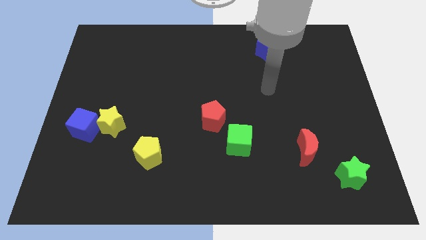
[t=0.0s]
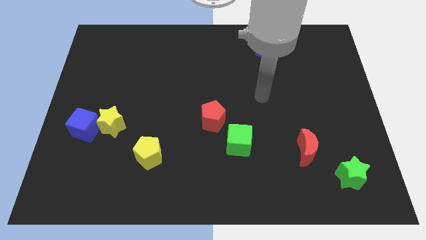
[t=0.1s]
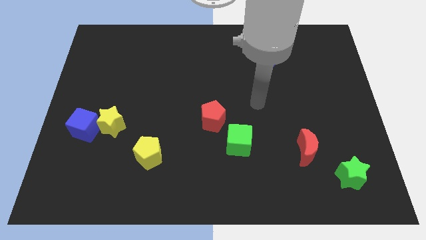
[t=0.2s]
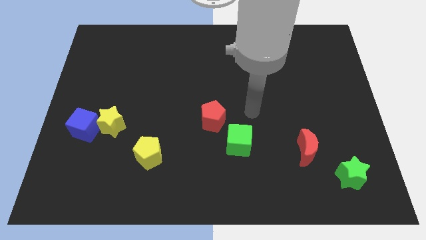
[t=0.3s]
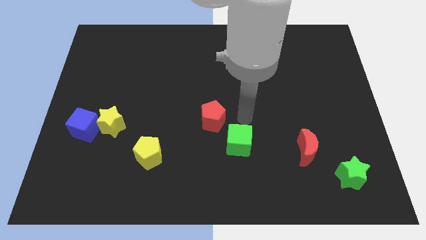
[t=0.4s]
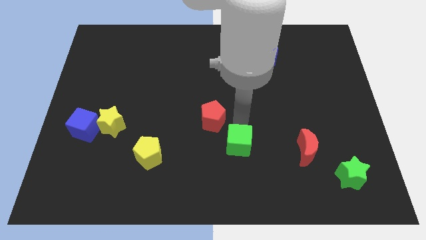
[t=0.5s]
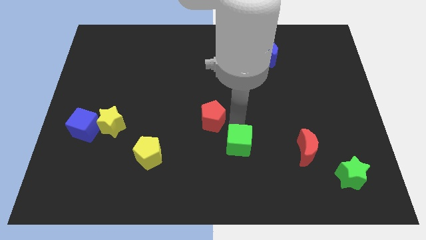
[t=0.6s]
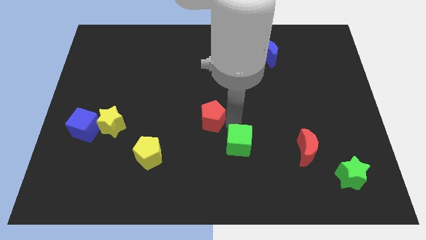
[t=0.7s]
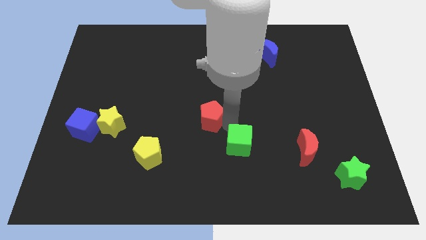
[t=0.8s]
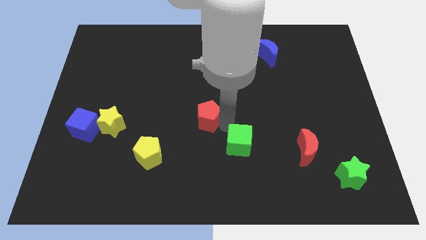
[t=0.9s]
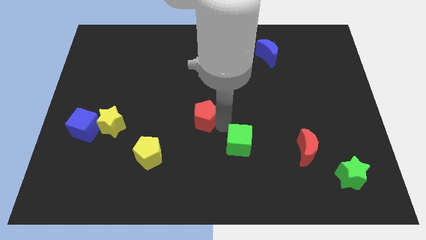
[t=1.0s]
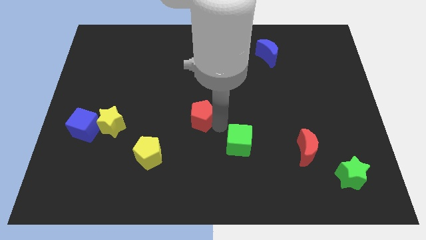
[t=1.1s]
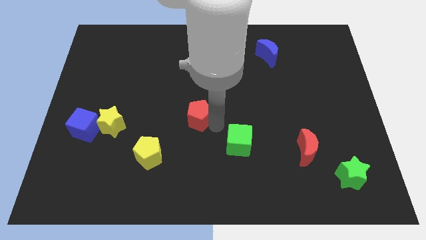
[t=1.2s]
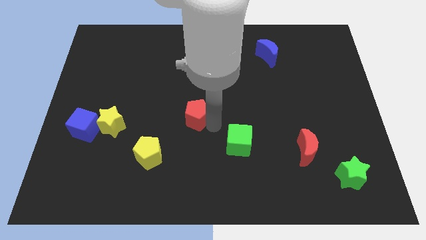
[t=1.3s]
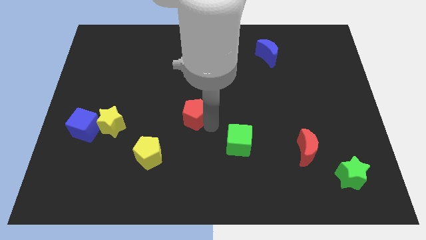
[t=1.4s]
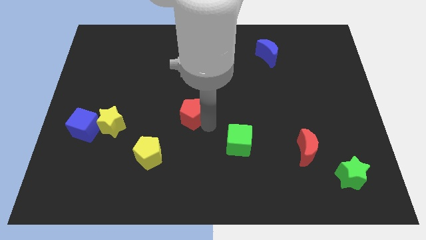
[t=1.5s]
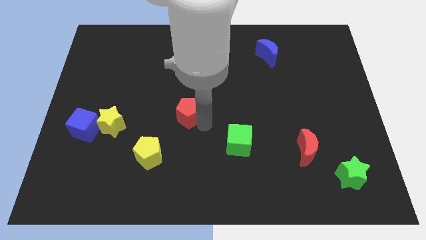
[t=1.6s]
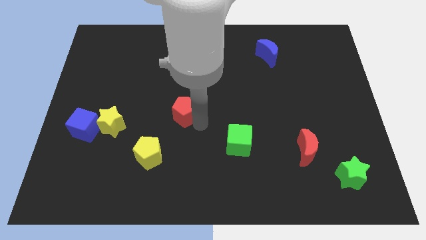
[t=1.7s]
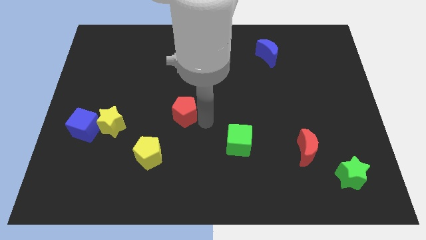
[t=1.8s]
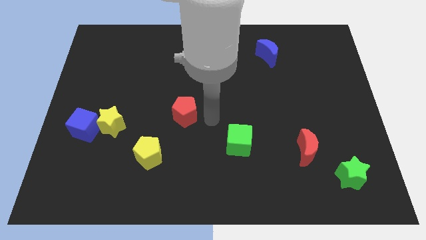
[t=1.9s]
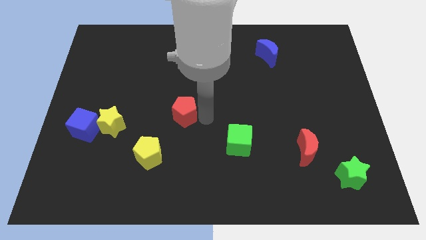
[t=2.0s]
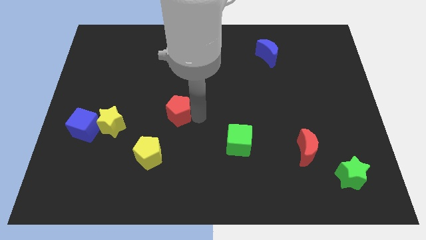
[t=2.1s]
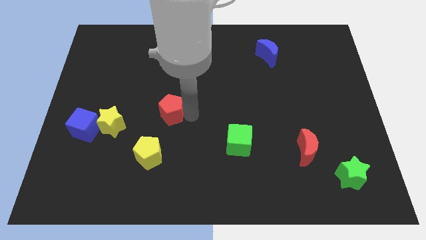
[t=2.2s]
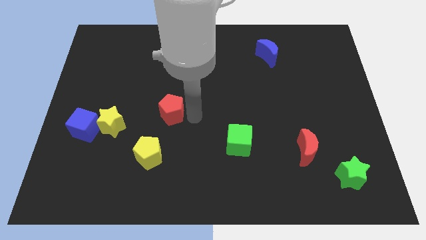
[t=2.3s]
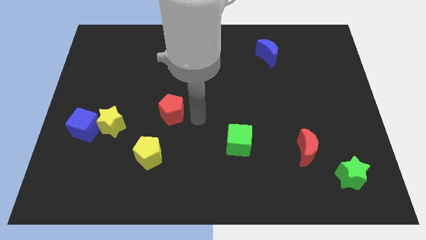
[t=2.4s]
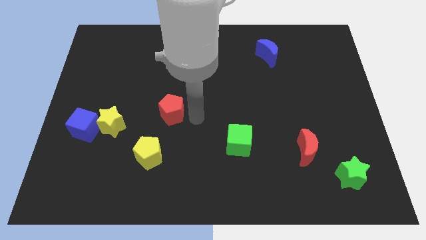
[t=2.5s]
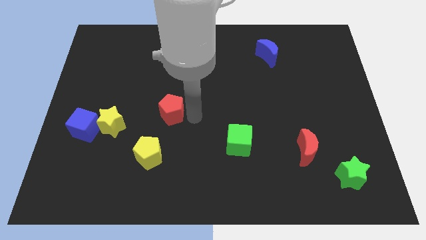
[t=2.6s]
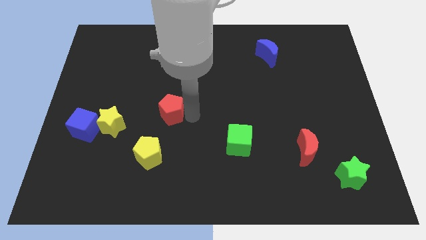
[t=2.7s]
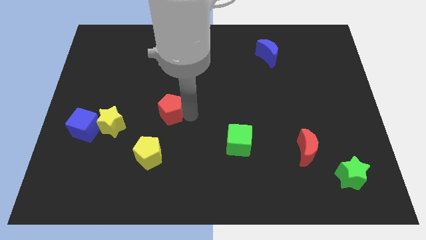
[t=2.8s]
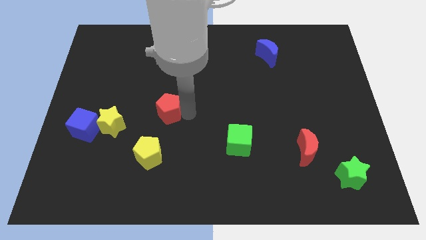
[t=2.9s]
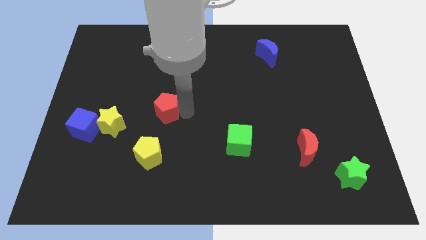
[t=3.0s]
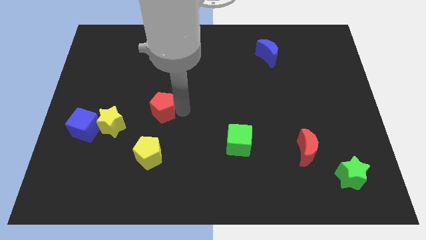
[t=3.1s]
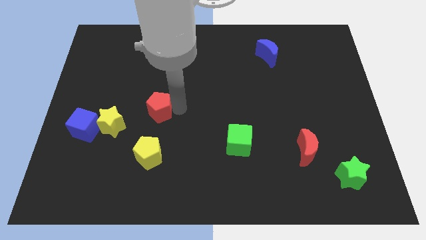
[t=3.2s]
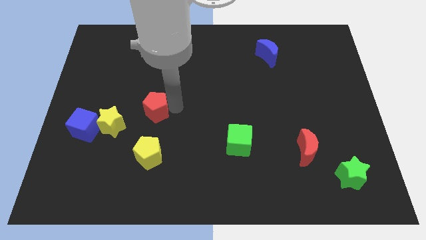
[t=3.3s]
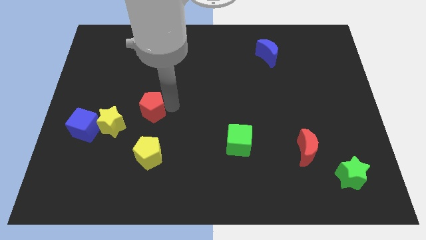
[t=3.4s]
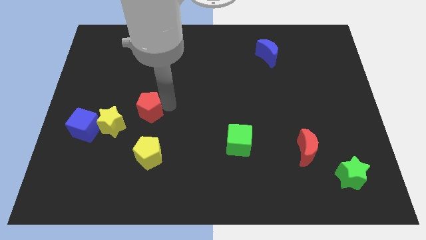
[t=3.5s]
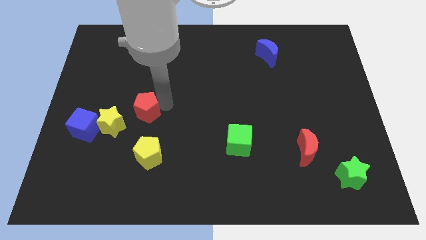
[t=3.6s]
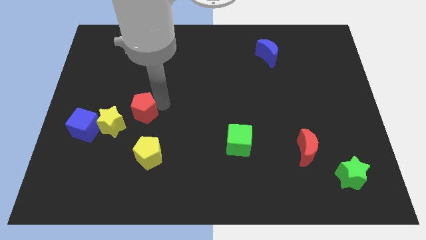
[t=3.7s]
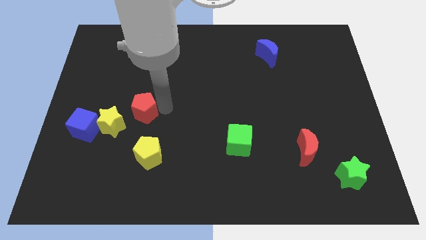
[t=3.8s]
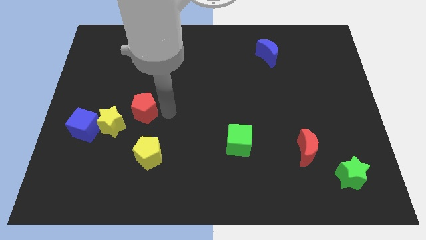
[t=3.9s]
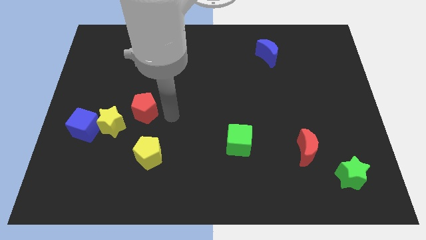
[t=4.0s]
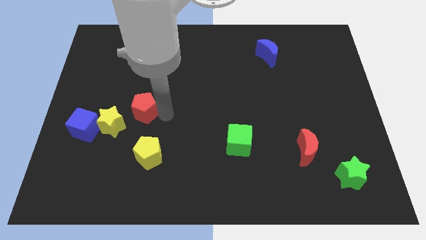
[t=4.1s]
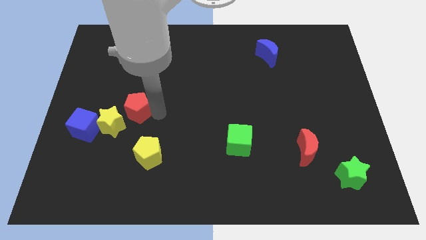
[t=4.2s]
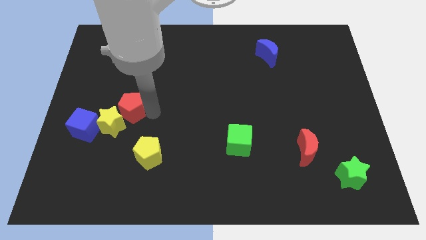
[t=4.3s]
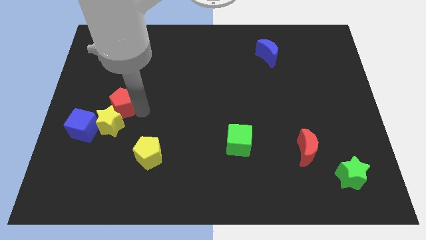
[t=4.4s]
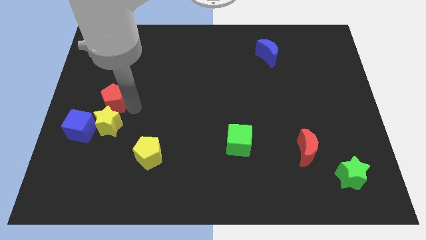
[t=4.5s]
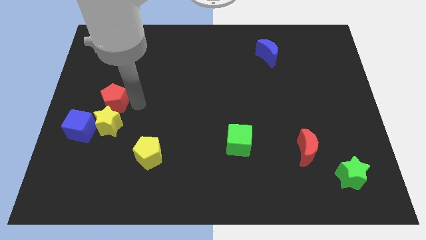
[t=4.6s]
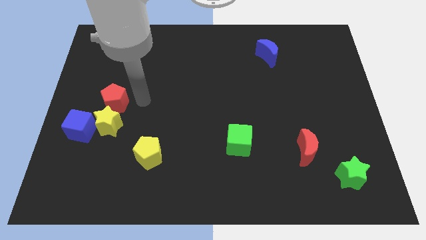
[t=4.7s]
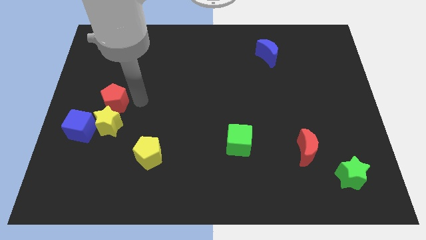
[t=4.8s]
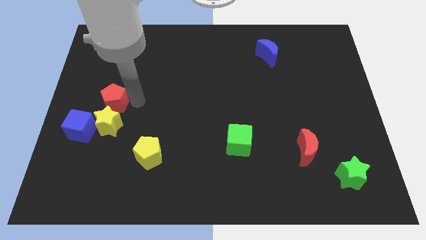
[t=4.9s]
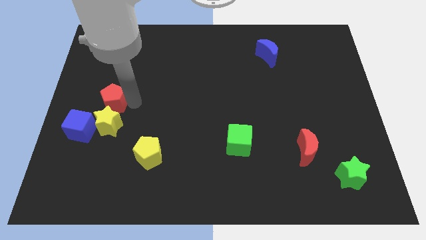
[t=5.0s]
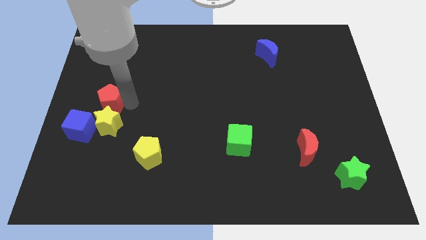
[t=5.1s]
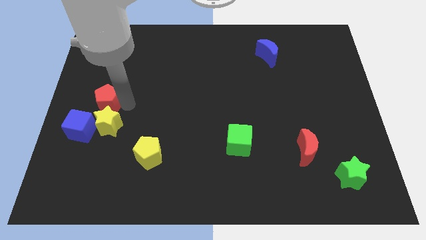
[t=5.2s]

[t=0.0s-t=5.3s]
put the red pentagon to the center left

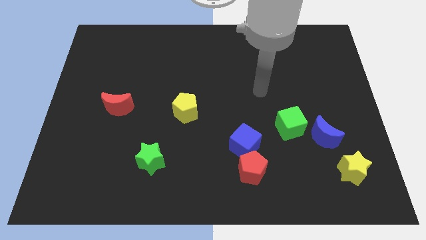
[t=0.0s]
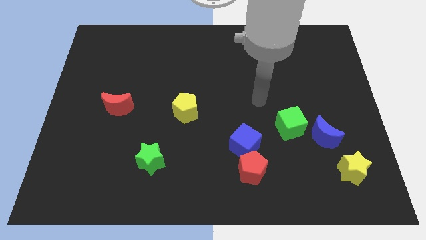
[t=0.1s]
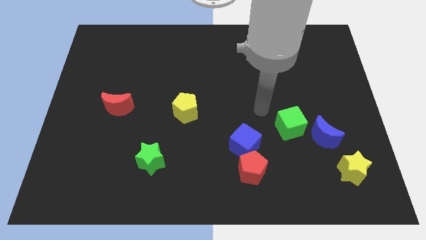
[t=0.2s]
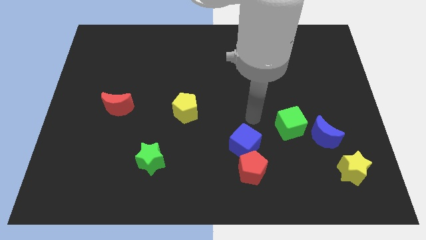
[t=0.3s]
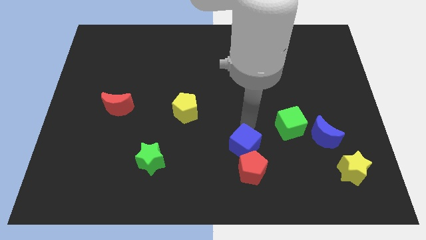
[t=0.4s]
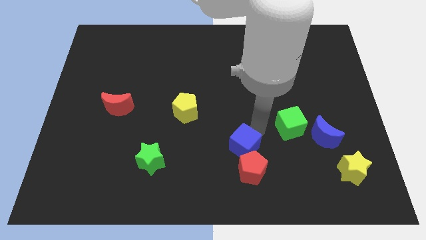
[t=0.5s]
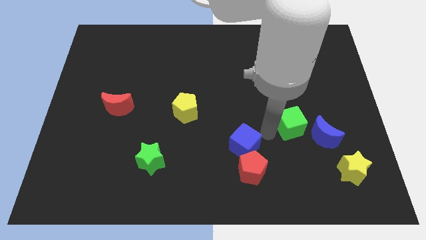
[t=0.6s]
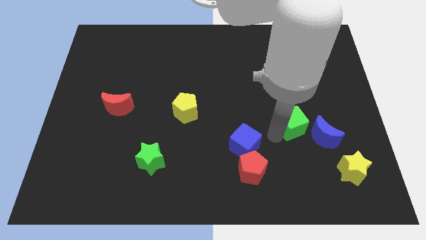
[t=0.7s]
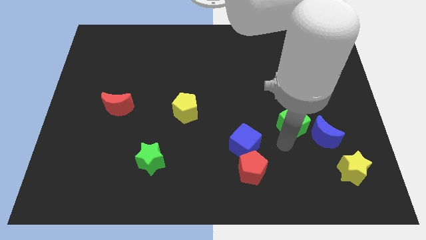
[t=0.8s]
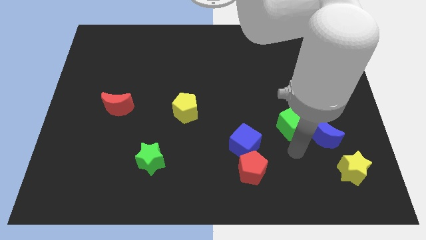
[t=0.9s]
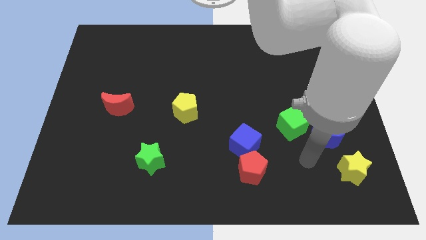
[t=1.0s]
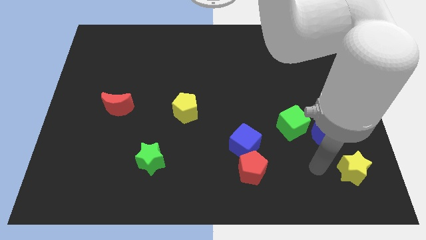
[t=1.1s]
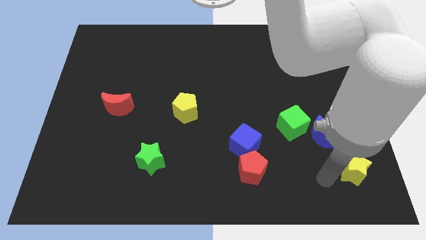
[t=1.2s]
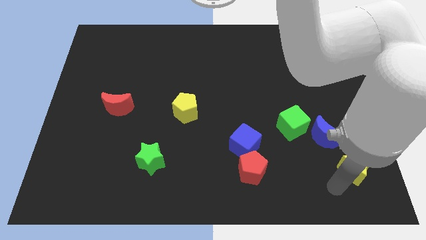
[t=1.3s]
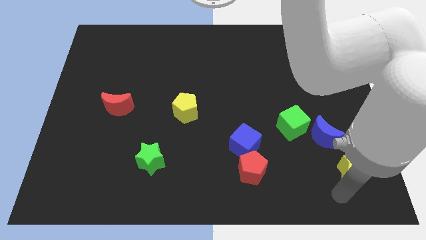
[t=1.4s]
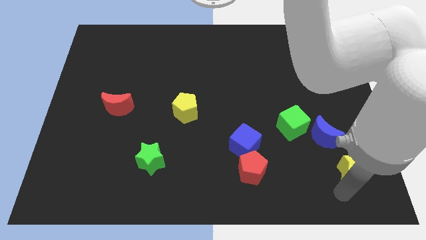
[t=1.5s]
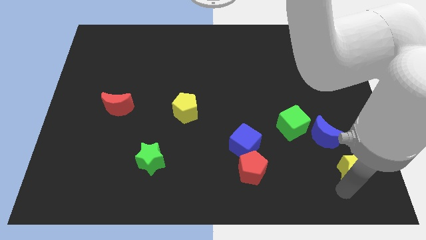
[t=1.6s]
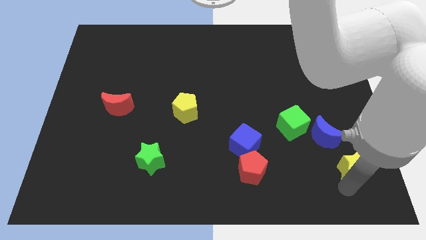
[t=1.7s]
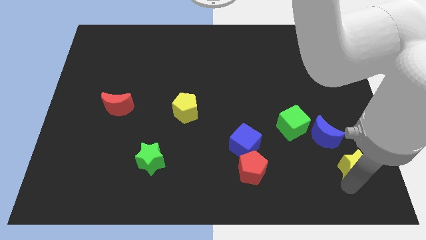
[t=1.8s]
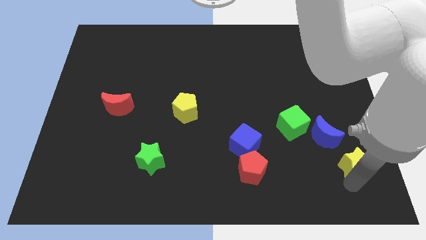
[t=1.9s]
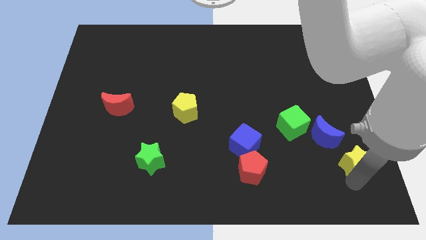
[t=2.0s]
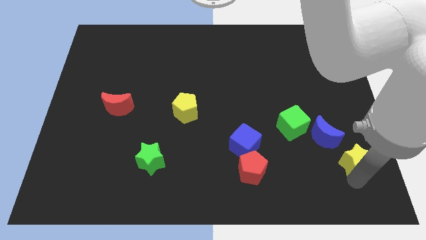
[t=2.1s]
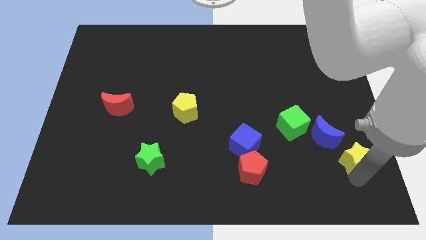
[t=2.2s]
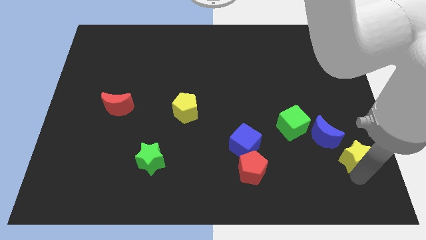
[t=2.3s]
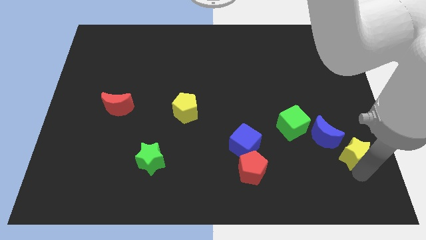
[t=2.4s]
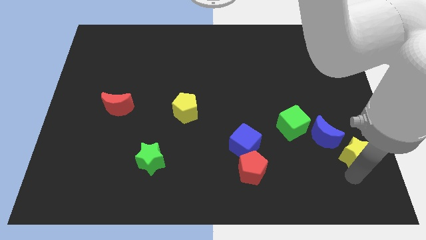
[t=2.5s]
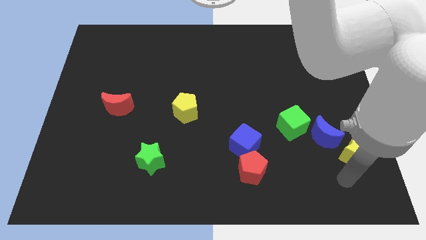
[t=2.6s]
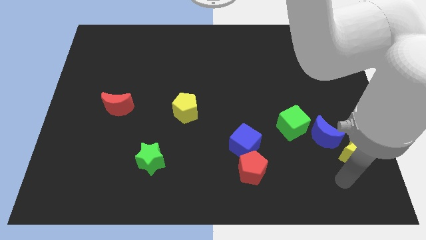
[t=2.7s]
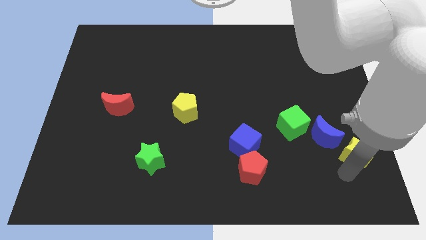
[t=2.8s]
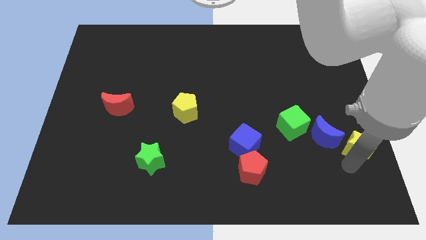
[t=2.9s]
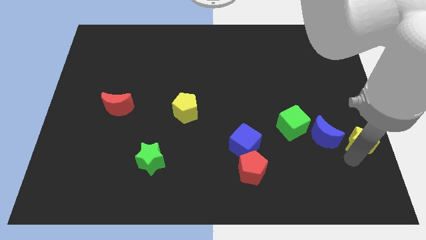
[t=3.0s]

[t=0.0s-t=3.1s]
move the yellow star to the right side of the board
